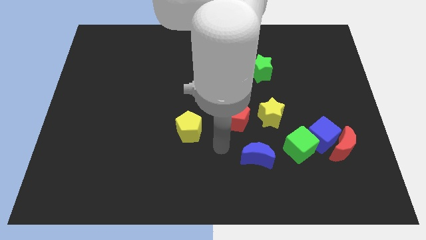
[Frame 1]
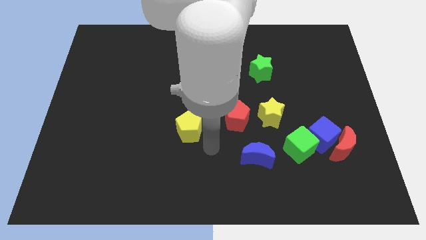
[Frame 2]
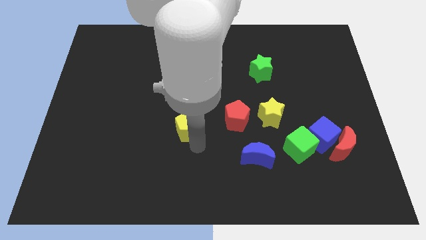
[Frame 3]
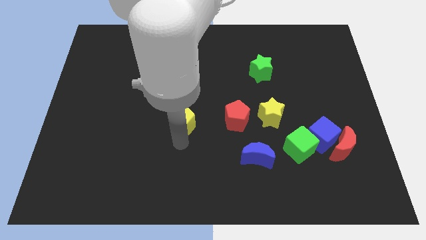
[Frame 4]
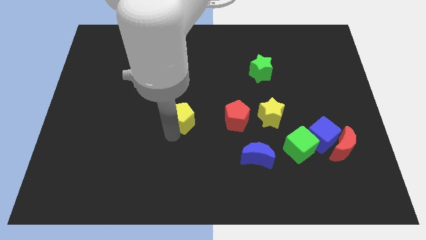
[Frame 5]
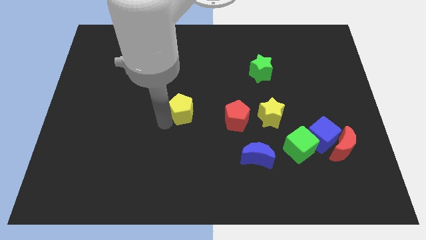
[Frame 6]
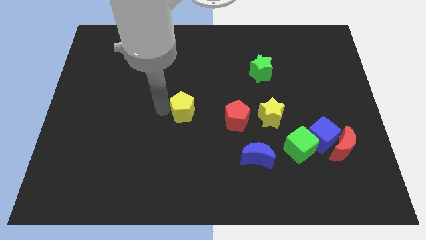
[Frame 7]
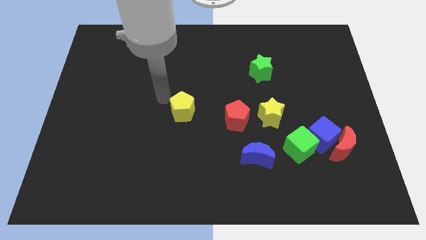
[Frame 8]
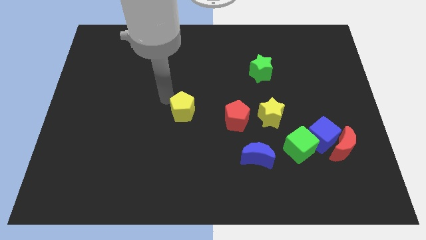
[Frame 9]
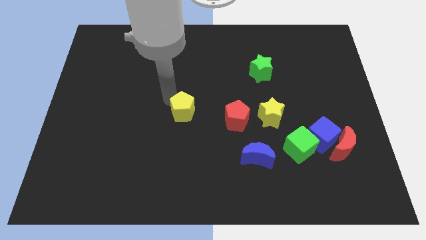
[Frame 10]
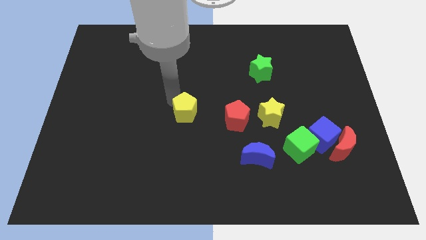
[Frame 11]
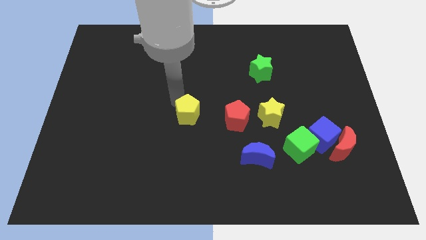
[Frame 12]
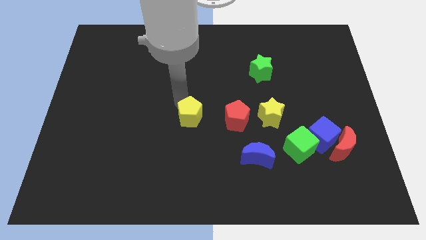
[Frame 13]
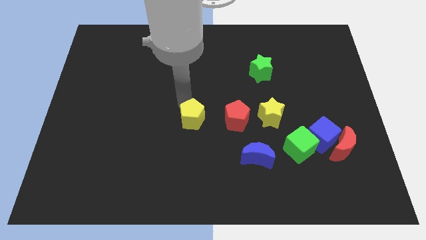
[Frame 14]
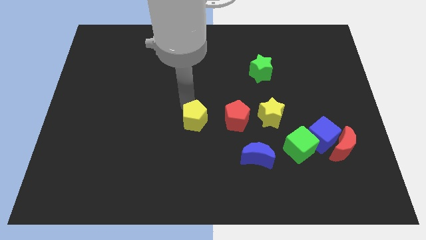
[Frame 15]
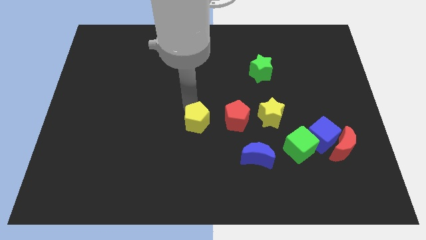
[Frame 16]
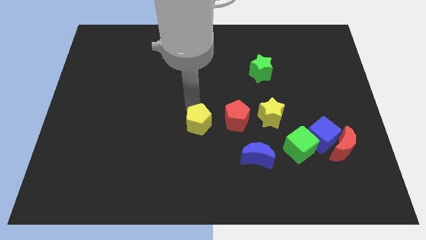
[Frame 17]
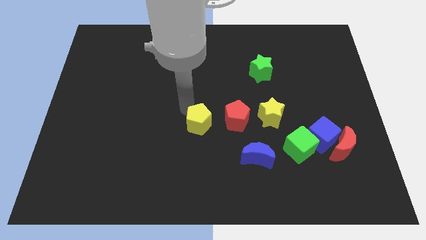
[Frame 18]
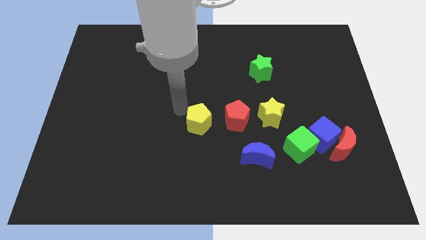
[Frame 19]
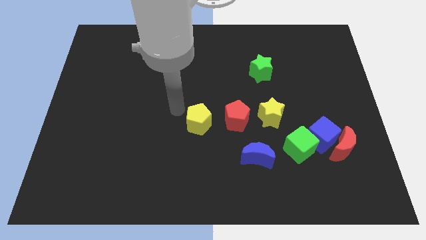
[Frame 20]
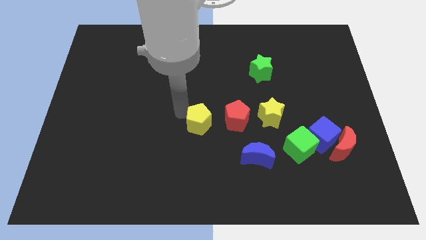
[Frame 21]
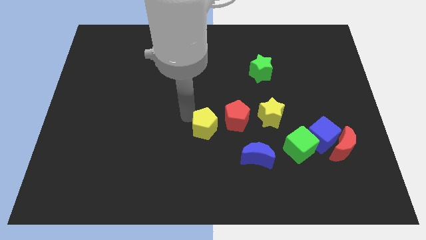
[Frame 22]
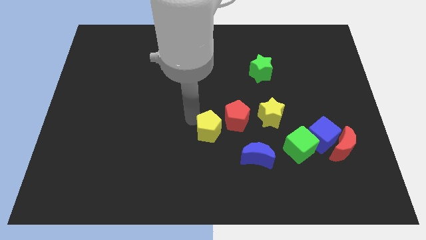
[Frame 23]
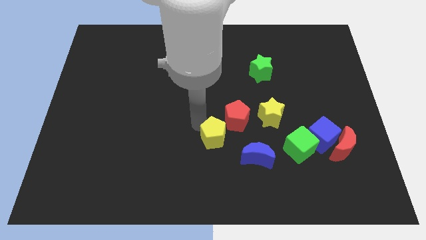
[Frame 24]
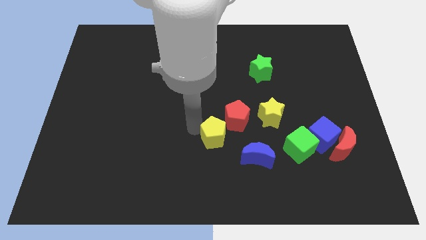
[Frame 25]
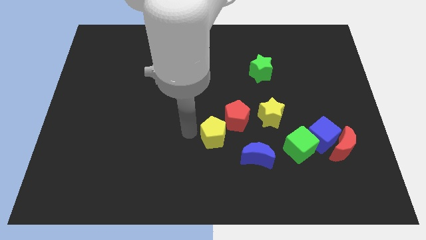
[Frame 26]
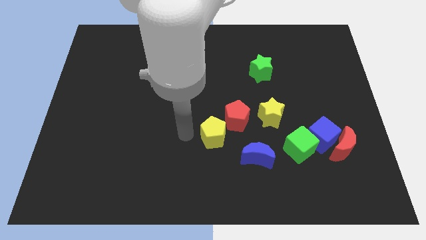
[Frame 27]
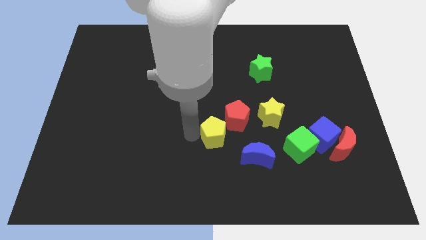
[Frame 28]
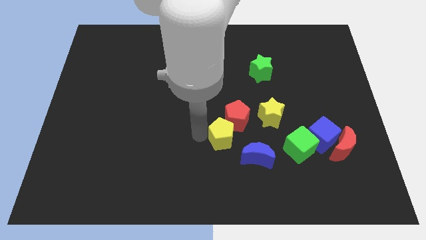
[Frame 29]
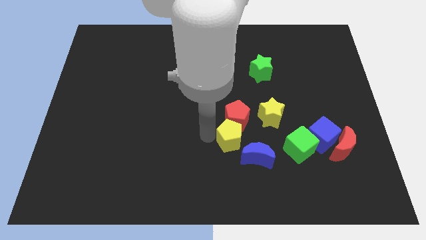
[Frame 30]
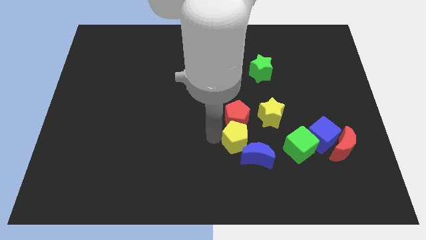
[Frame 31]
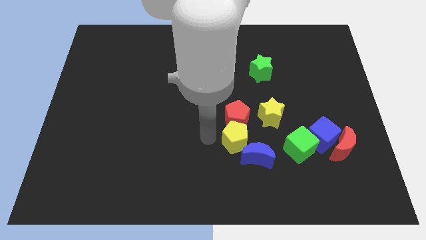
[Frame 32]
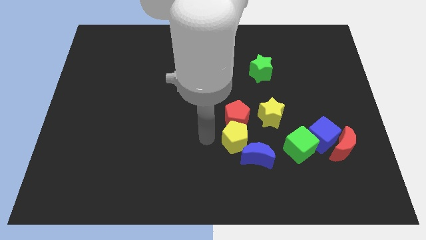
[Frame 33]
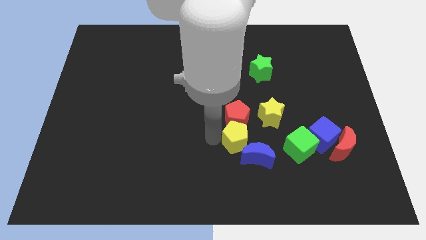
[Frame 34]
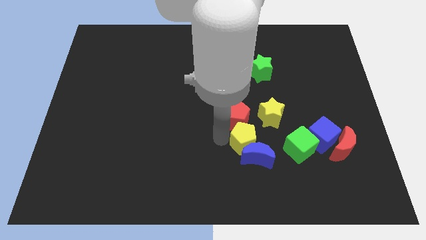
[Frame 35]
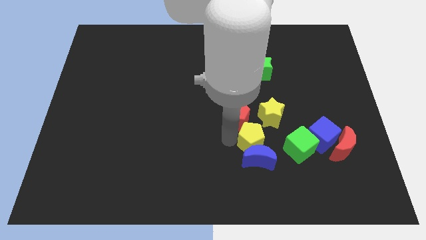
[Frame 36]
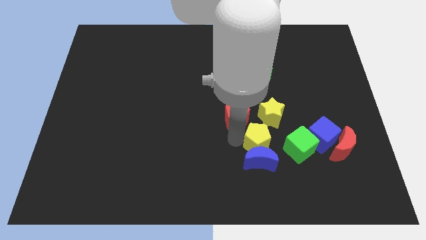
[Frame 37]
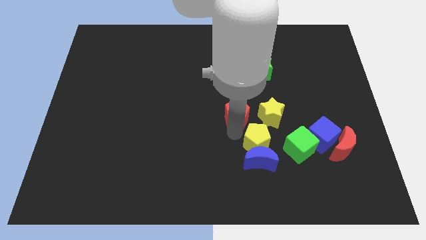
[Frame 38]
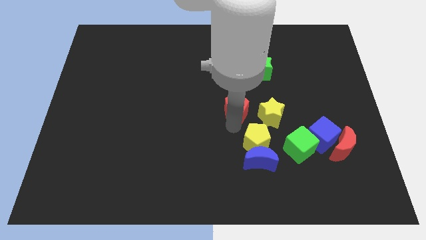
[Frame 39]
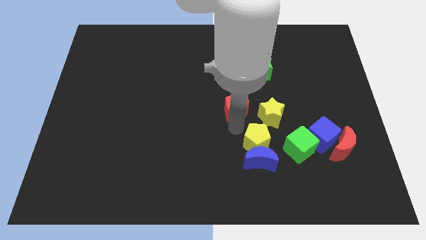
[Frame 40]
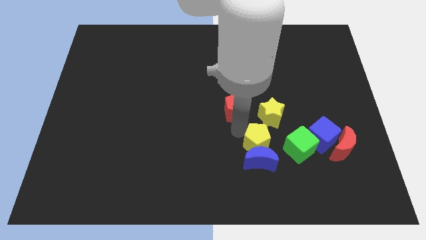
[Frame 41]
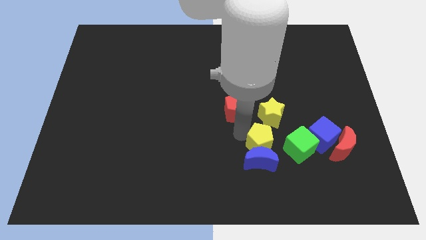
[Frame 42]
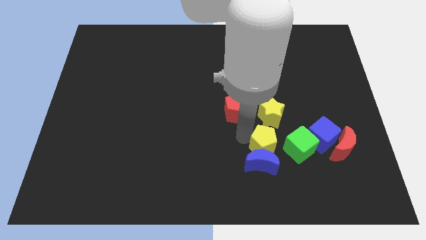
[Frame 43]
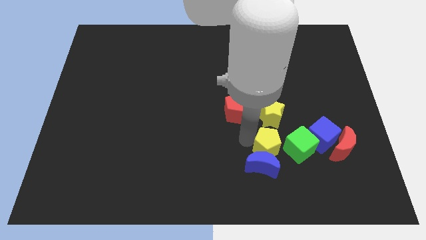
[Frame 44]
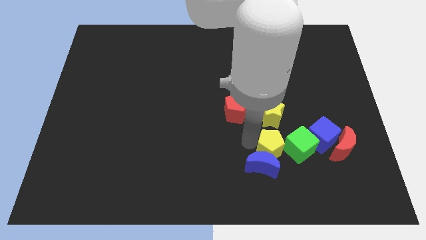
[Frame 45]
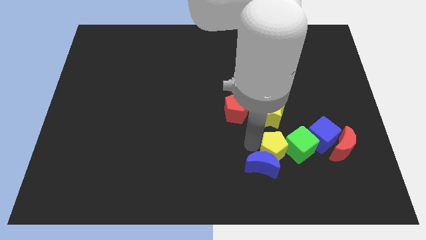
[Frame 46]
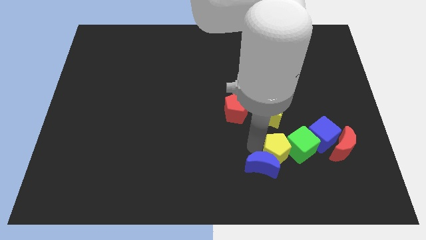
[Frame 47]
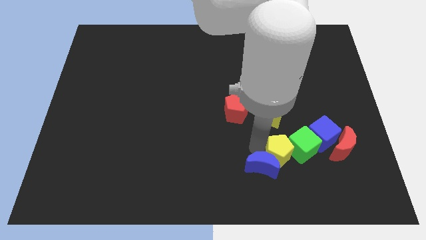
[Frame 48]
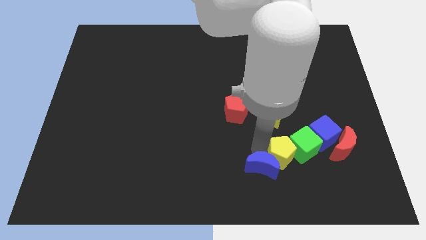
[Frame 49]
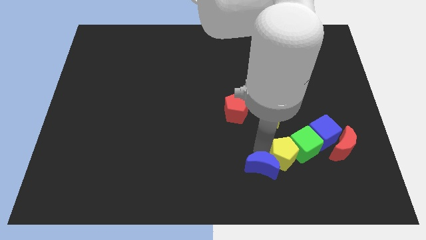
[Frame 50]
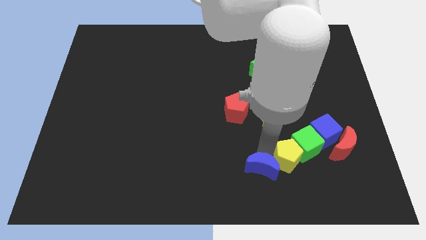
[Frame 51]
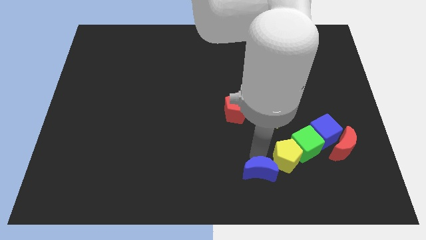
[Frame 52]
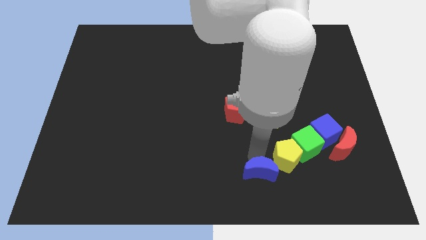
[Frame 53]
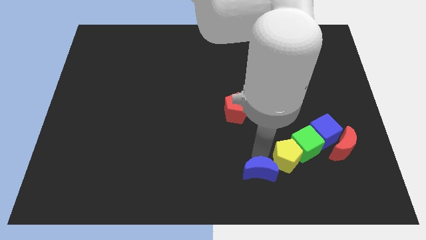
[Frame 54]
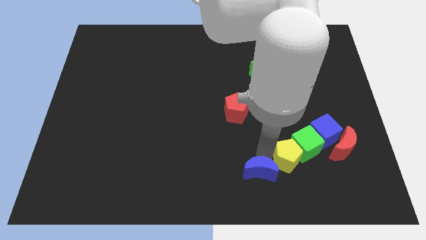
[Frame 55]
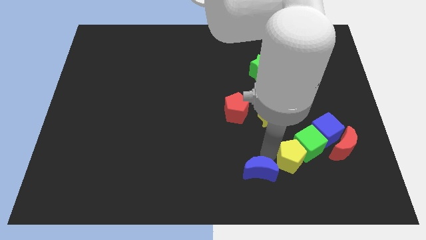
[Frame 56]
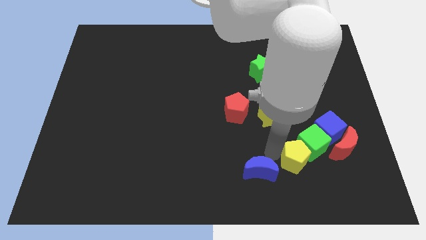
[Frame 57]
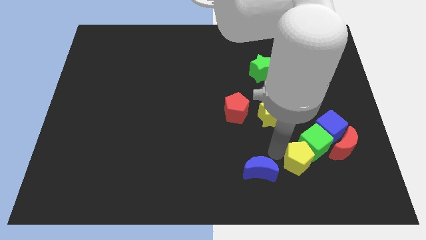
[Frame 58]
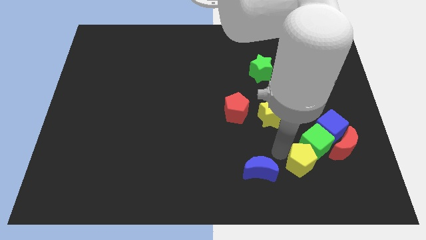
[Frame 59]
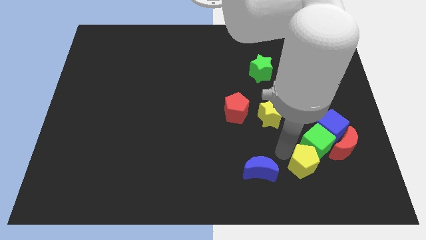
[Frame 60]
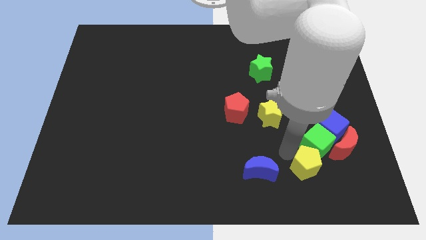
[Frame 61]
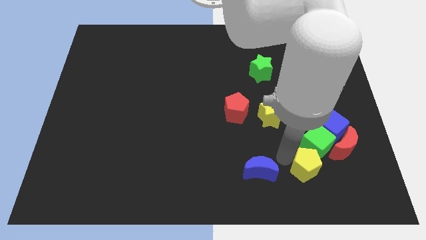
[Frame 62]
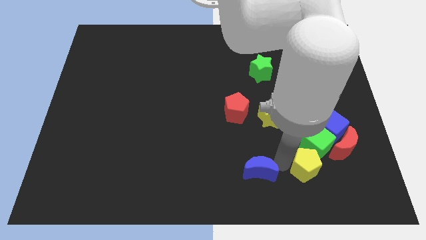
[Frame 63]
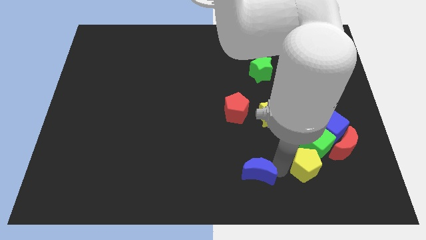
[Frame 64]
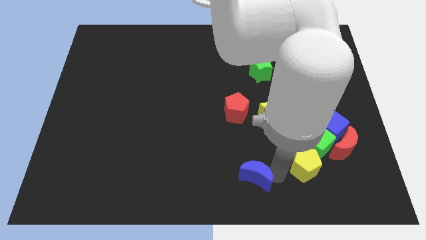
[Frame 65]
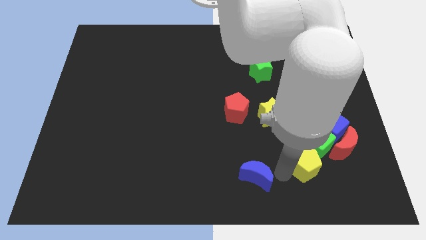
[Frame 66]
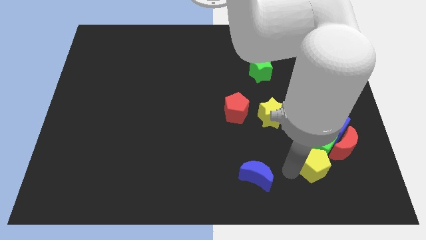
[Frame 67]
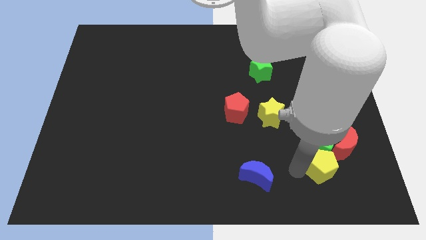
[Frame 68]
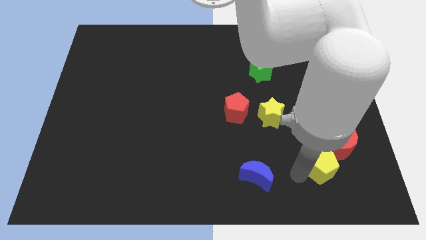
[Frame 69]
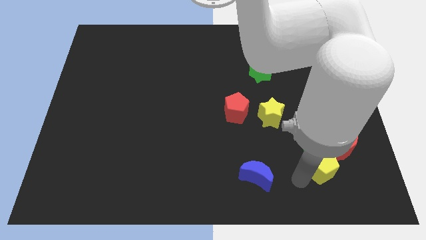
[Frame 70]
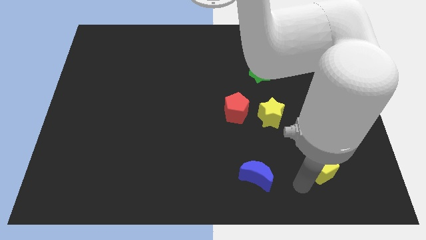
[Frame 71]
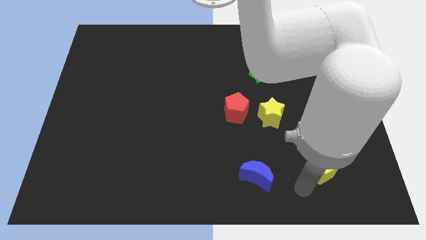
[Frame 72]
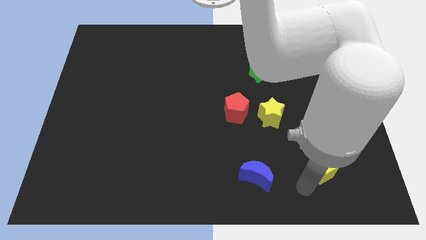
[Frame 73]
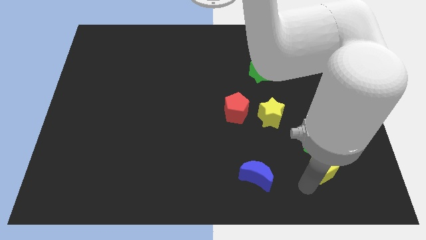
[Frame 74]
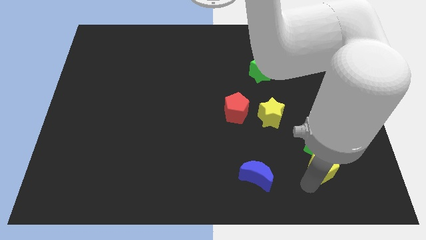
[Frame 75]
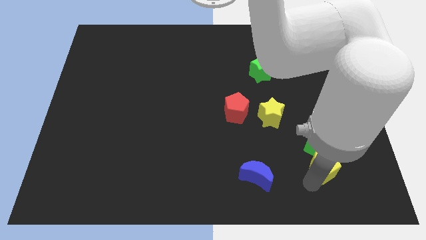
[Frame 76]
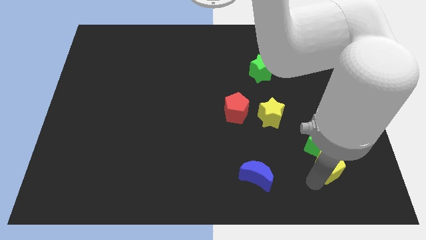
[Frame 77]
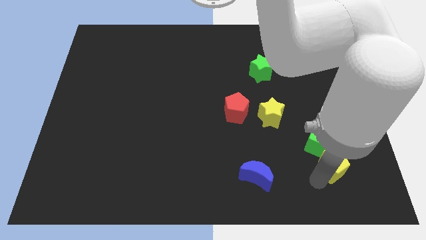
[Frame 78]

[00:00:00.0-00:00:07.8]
slide the yellow pentagon close to the red moon
